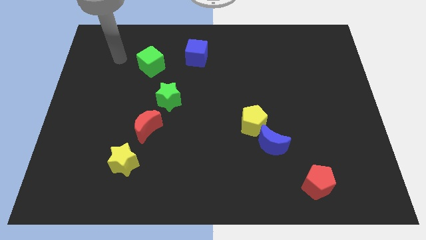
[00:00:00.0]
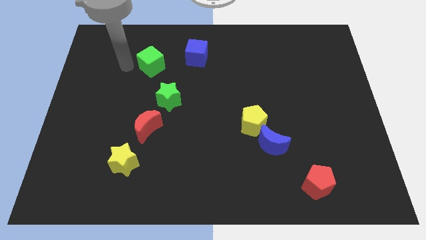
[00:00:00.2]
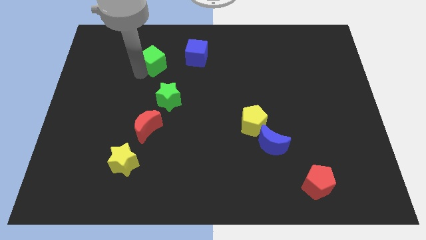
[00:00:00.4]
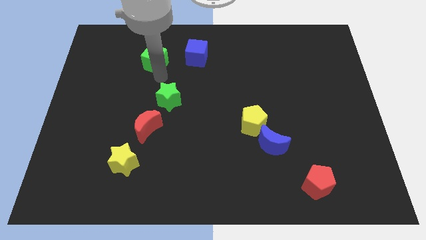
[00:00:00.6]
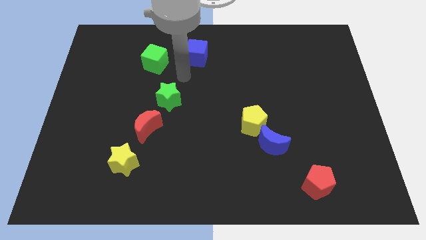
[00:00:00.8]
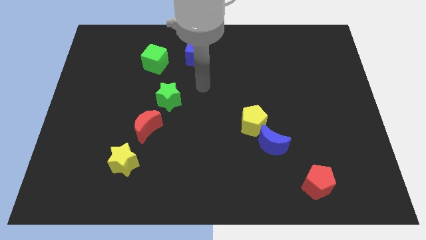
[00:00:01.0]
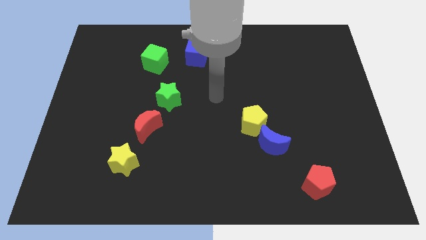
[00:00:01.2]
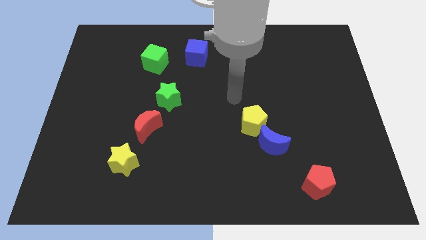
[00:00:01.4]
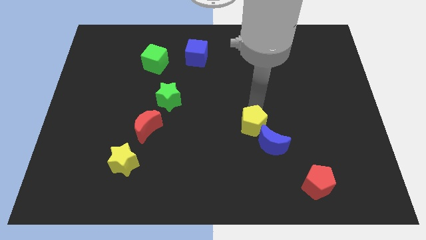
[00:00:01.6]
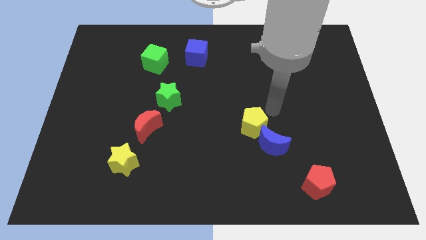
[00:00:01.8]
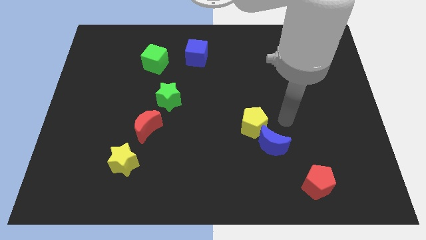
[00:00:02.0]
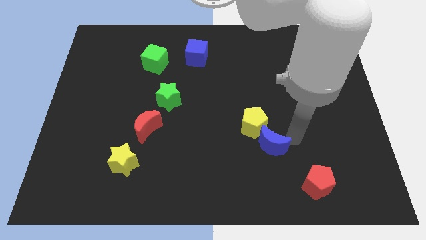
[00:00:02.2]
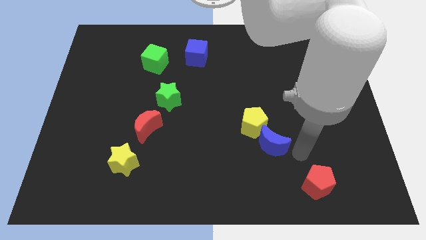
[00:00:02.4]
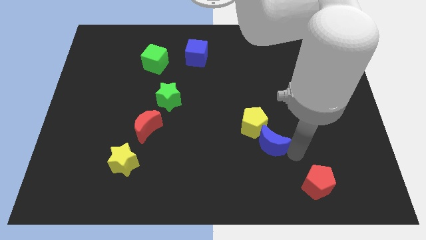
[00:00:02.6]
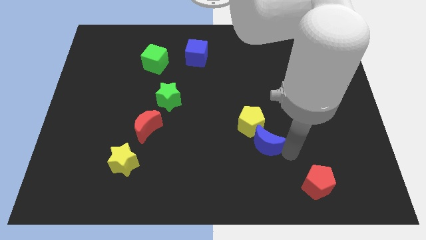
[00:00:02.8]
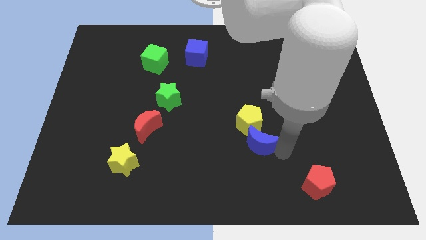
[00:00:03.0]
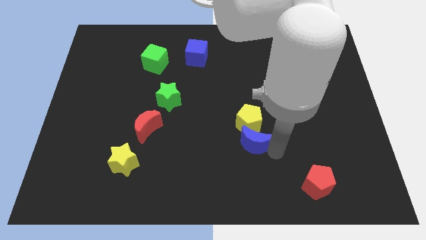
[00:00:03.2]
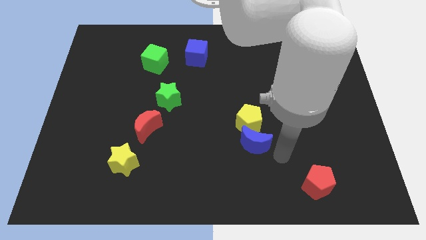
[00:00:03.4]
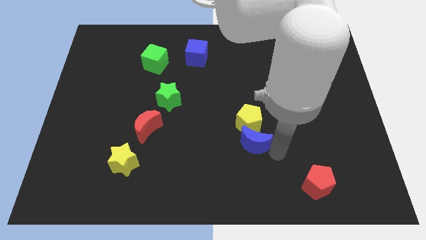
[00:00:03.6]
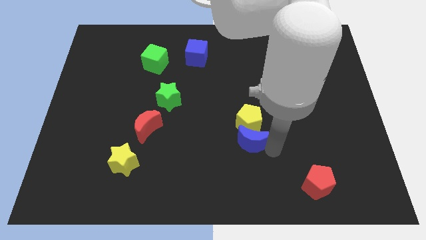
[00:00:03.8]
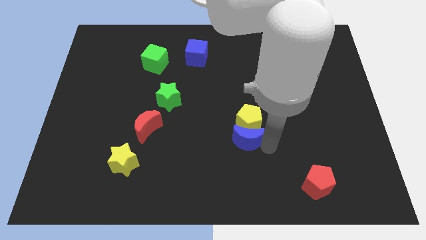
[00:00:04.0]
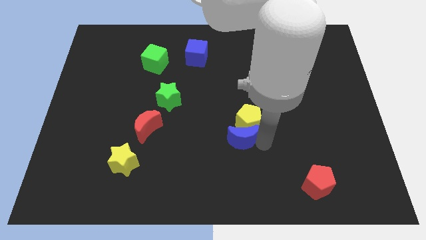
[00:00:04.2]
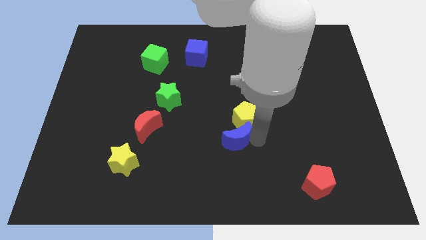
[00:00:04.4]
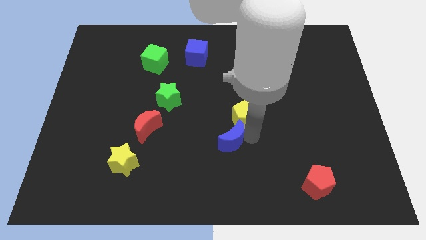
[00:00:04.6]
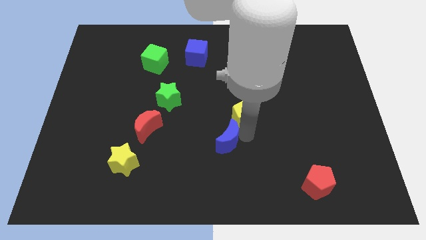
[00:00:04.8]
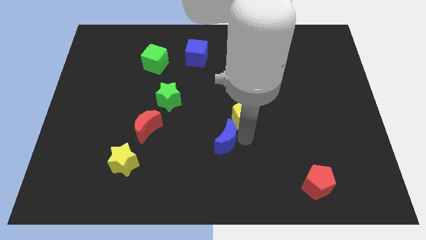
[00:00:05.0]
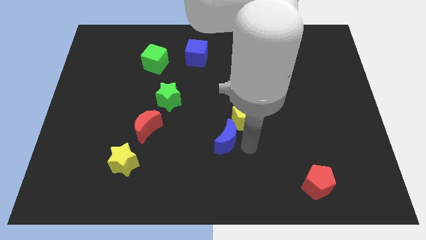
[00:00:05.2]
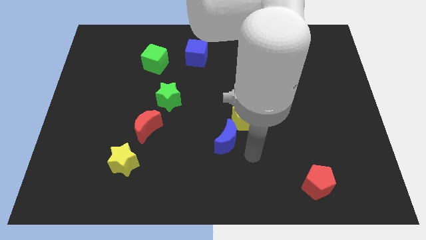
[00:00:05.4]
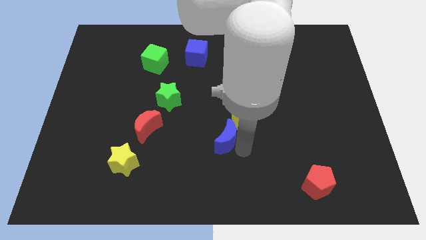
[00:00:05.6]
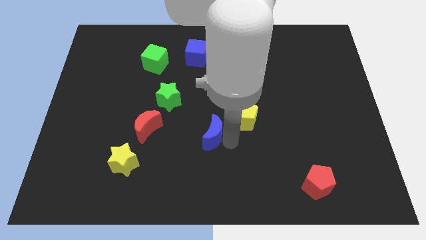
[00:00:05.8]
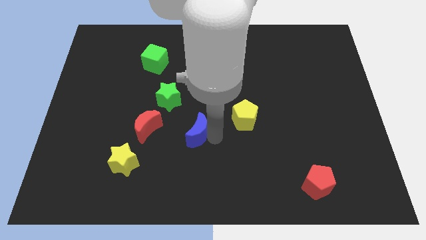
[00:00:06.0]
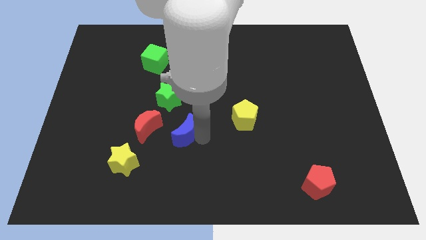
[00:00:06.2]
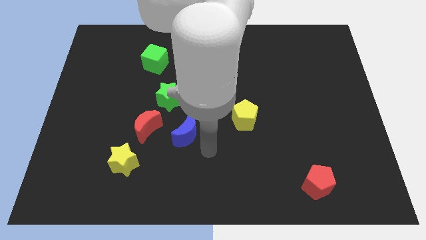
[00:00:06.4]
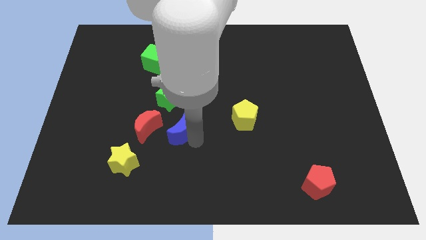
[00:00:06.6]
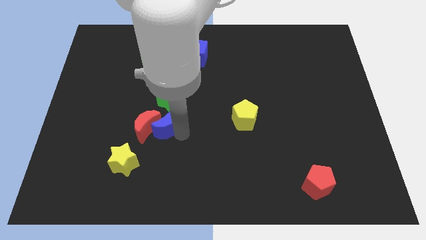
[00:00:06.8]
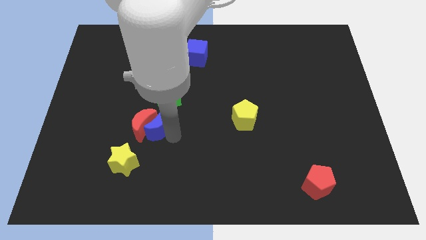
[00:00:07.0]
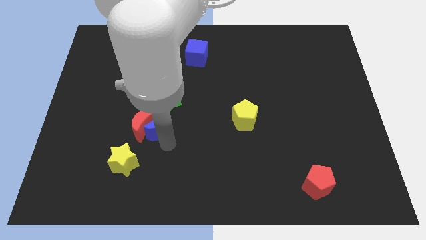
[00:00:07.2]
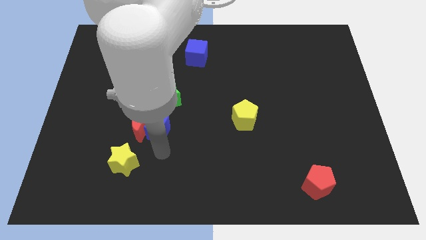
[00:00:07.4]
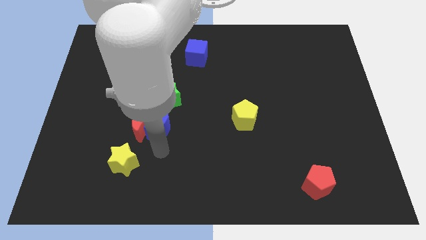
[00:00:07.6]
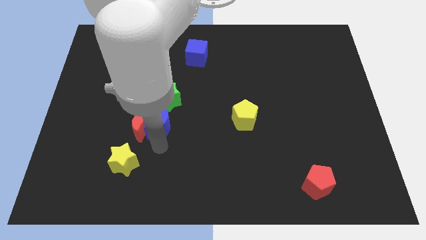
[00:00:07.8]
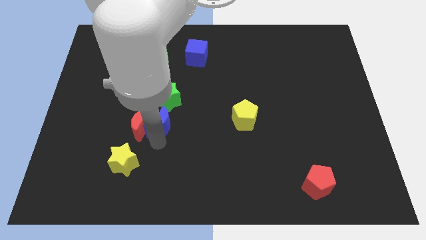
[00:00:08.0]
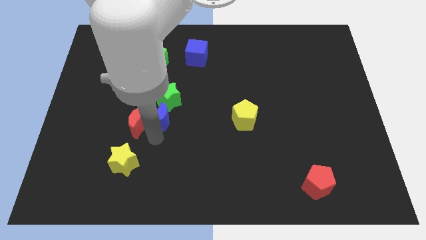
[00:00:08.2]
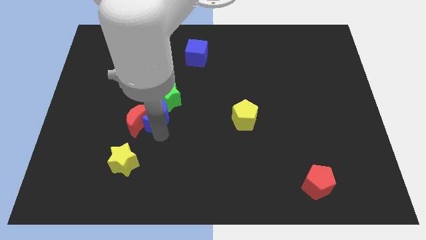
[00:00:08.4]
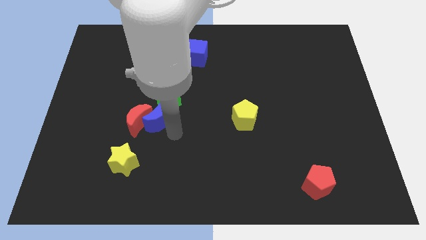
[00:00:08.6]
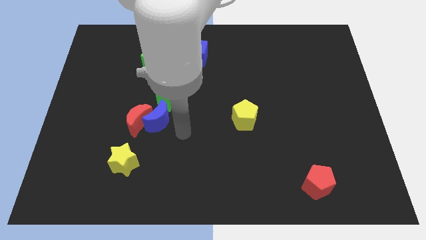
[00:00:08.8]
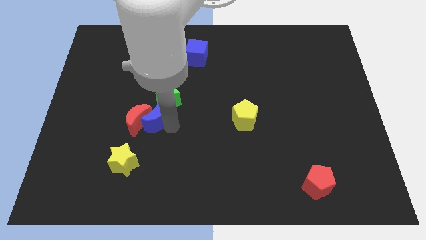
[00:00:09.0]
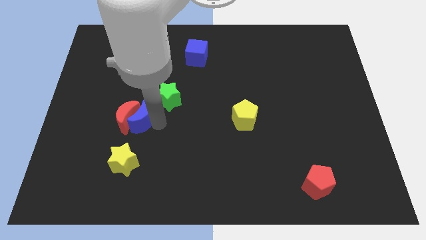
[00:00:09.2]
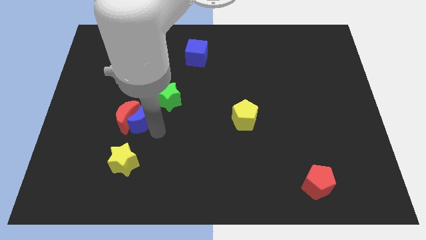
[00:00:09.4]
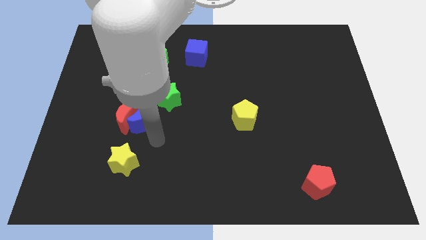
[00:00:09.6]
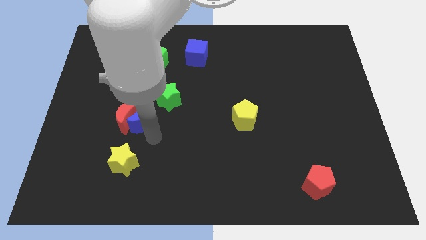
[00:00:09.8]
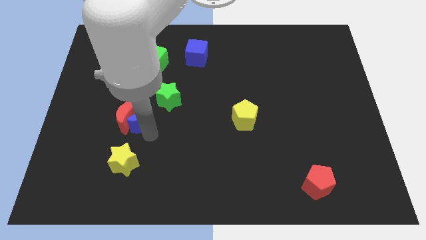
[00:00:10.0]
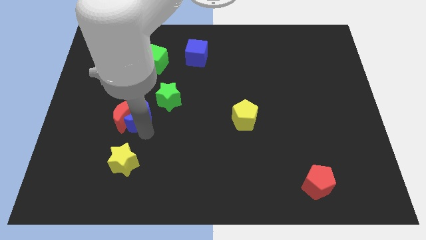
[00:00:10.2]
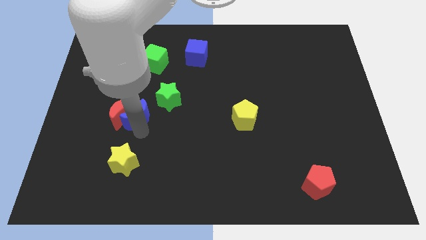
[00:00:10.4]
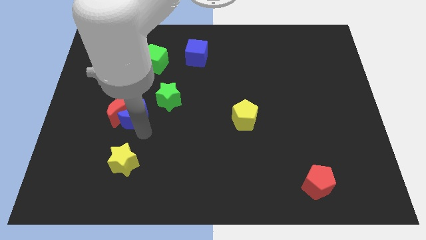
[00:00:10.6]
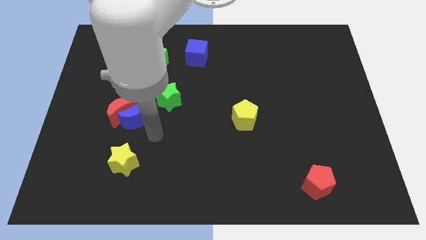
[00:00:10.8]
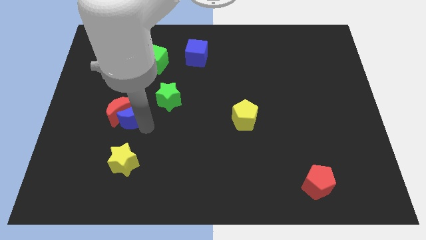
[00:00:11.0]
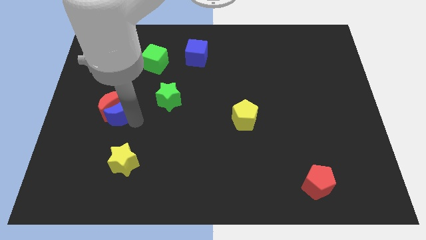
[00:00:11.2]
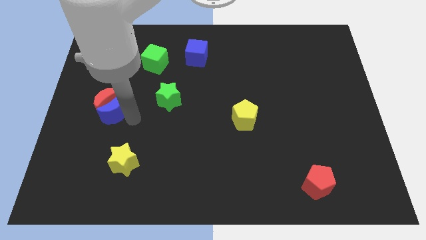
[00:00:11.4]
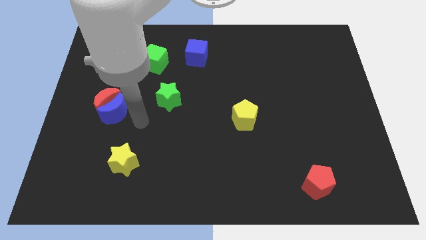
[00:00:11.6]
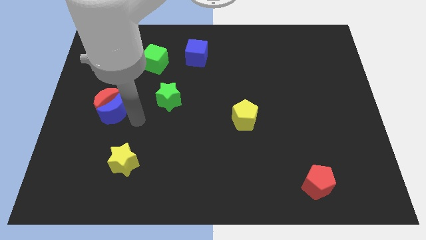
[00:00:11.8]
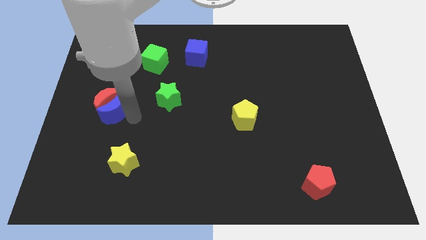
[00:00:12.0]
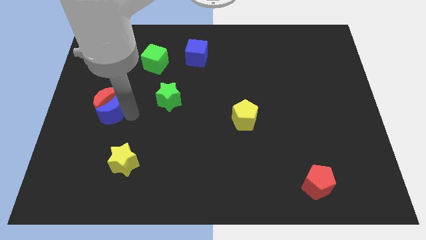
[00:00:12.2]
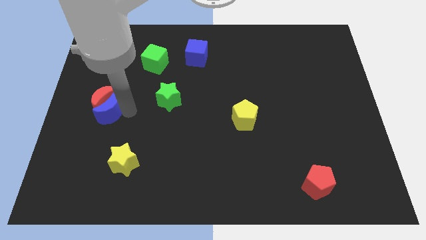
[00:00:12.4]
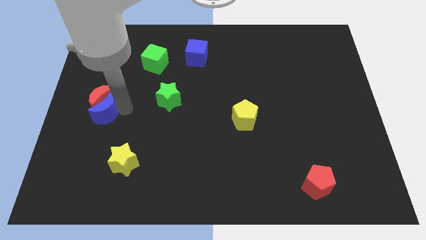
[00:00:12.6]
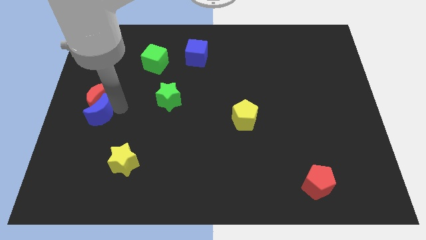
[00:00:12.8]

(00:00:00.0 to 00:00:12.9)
put the blue moon to the left side
